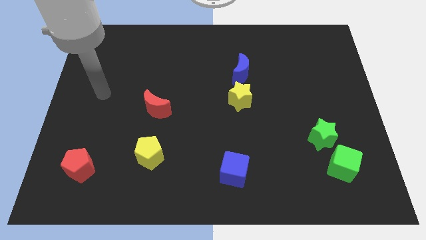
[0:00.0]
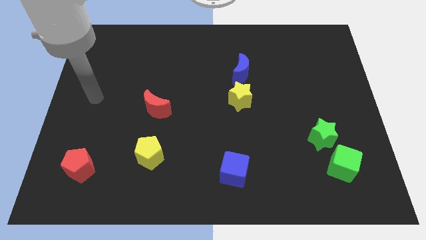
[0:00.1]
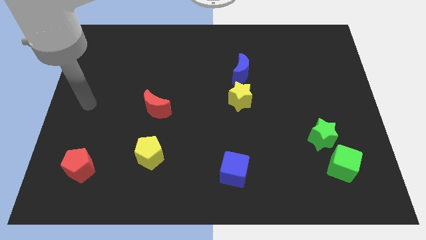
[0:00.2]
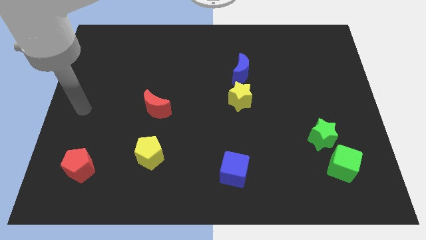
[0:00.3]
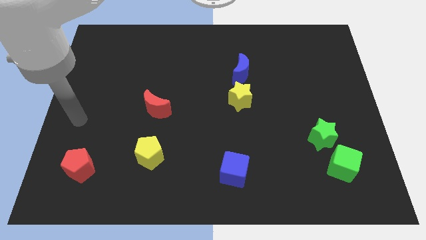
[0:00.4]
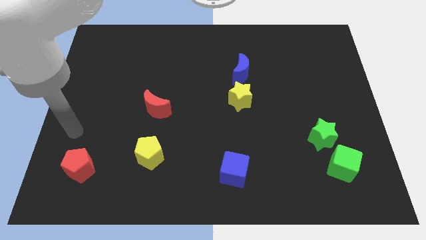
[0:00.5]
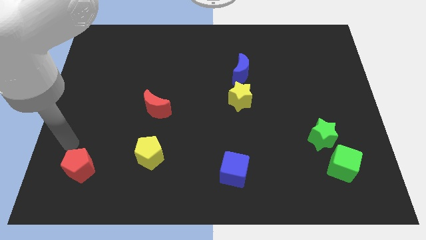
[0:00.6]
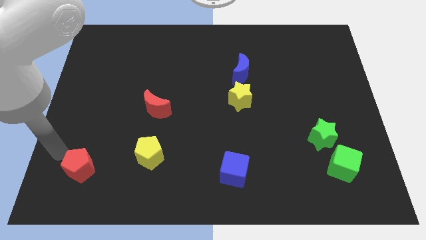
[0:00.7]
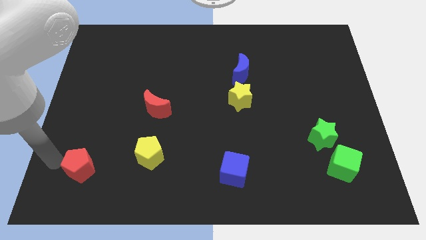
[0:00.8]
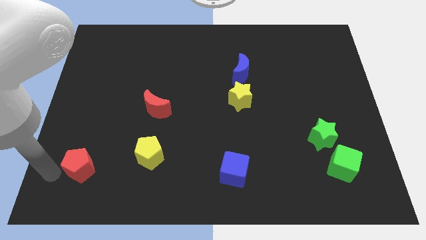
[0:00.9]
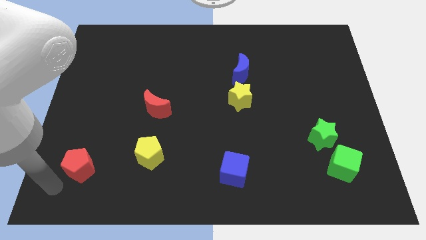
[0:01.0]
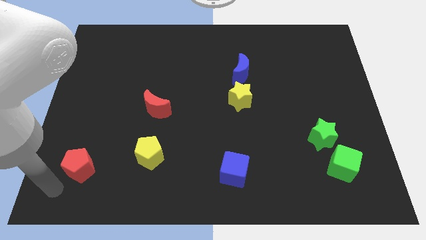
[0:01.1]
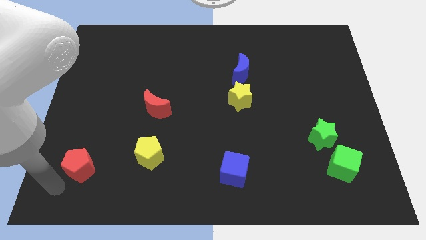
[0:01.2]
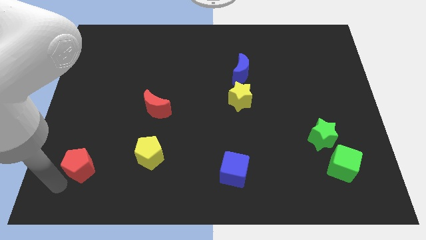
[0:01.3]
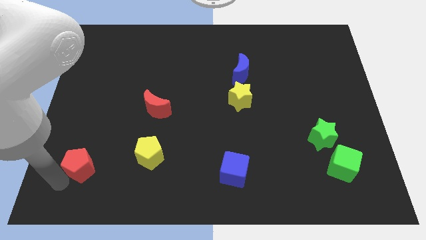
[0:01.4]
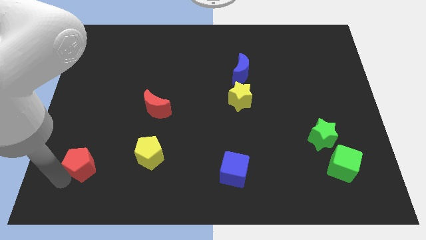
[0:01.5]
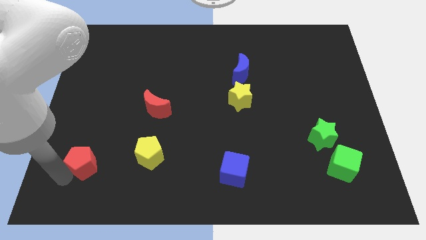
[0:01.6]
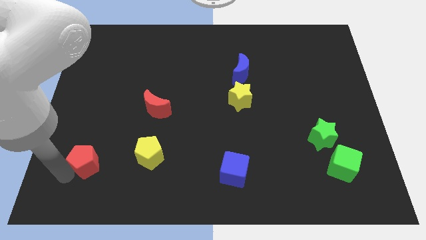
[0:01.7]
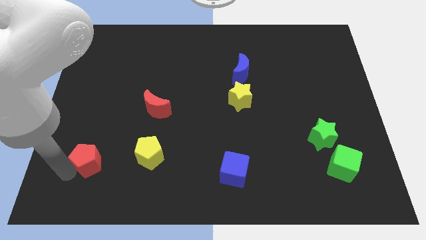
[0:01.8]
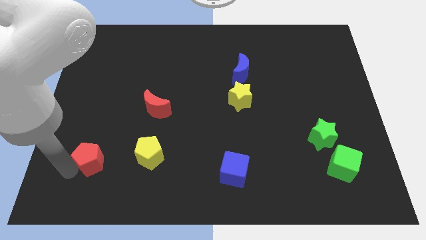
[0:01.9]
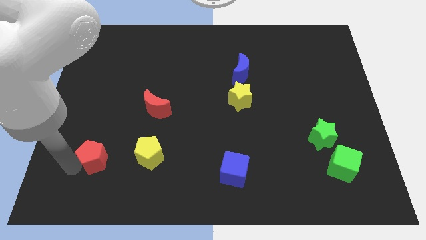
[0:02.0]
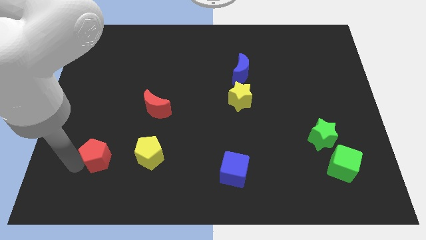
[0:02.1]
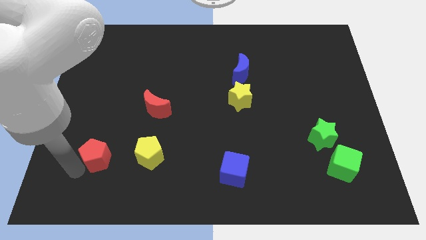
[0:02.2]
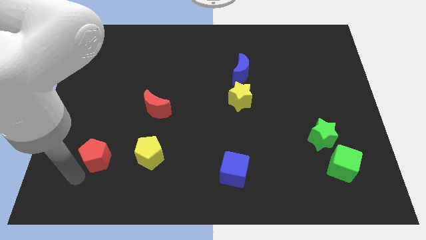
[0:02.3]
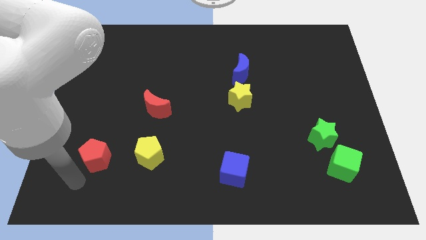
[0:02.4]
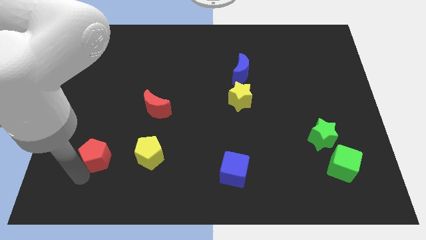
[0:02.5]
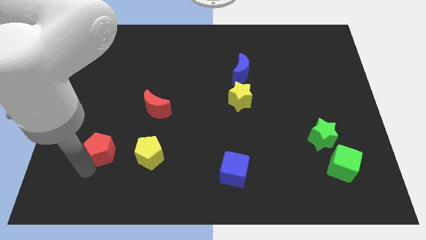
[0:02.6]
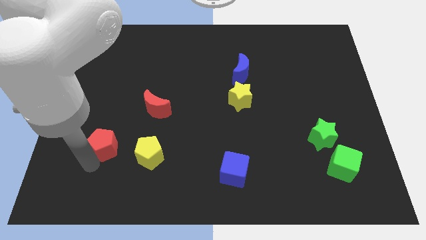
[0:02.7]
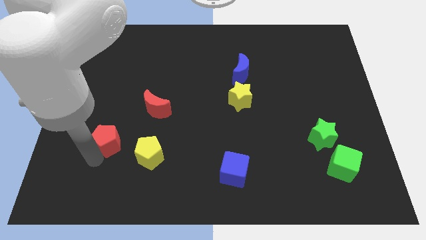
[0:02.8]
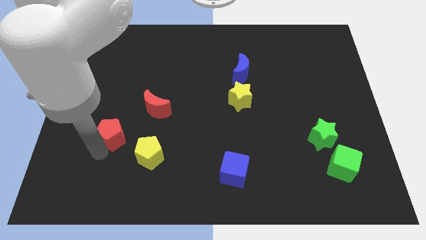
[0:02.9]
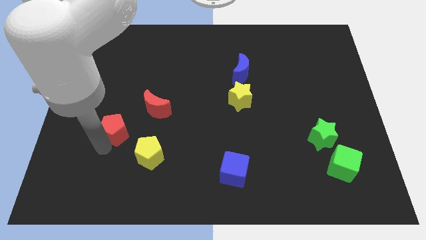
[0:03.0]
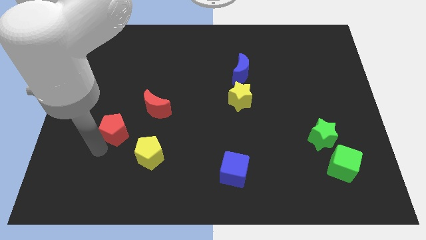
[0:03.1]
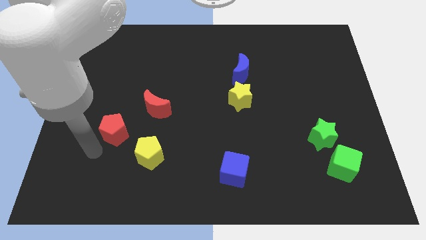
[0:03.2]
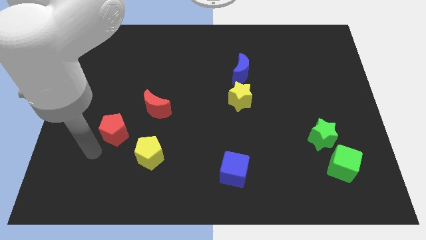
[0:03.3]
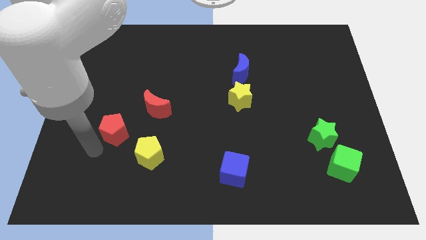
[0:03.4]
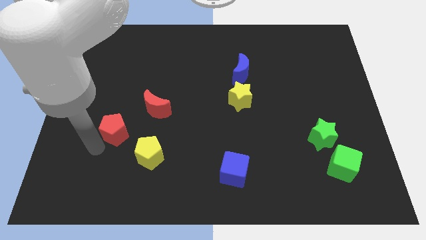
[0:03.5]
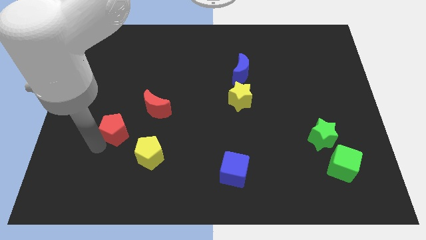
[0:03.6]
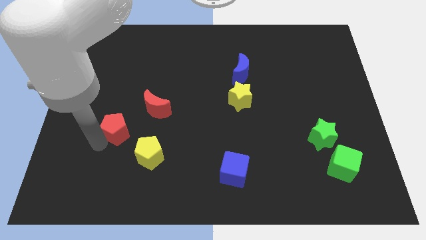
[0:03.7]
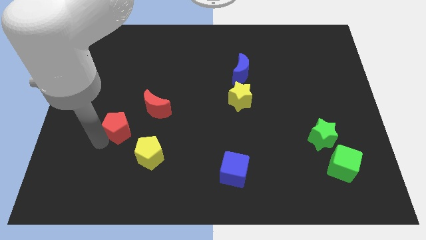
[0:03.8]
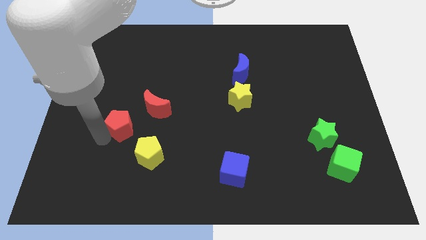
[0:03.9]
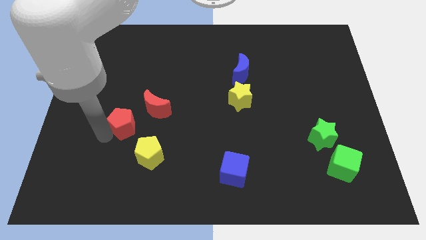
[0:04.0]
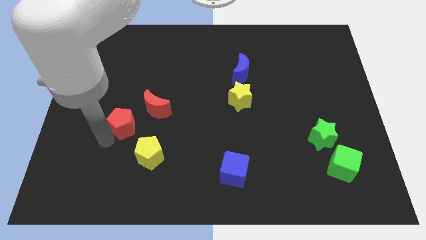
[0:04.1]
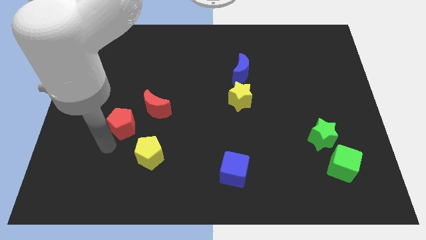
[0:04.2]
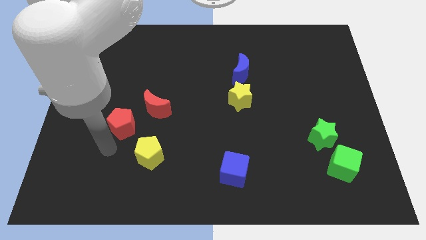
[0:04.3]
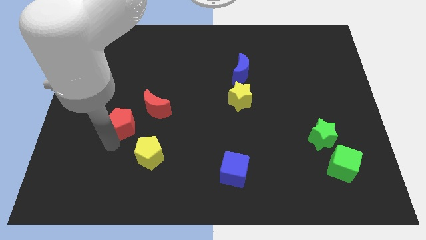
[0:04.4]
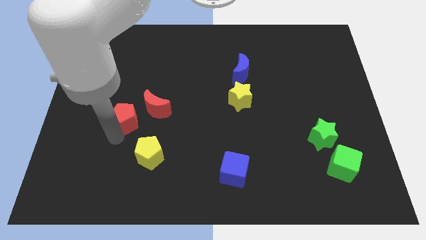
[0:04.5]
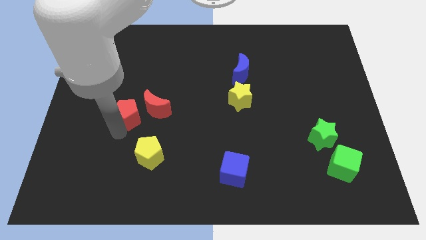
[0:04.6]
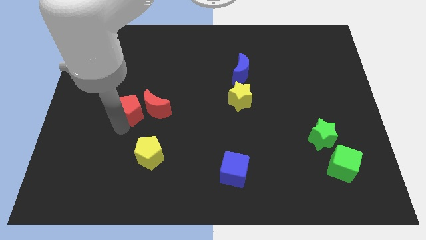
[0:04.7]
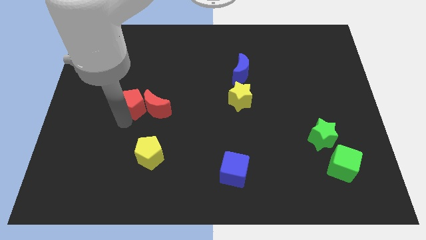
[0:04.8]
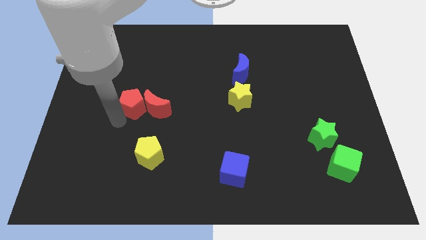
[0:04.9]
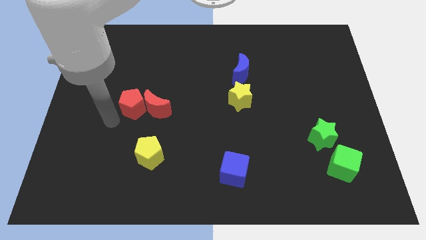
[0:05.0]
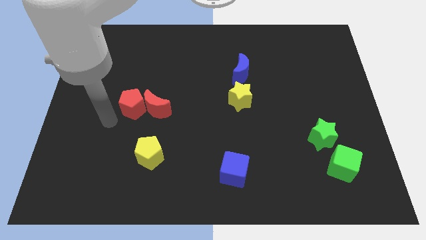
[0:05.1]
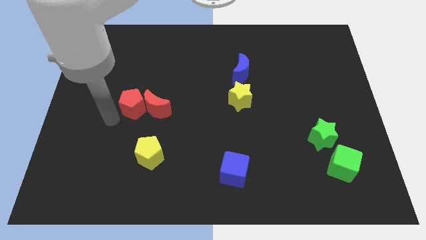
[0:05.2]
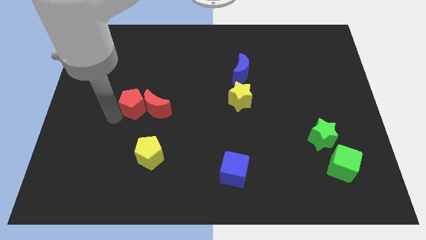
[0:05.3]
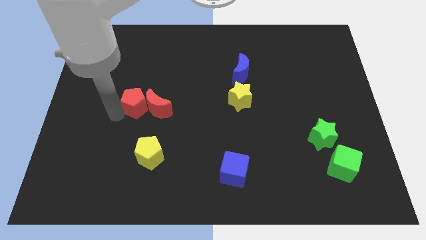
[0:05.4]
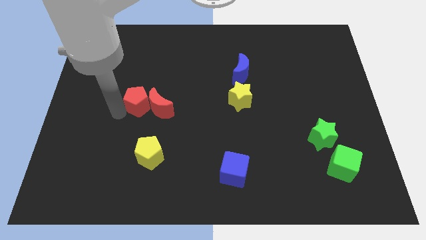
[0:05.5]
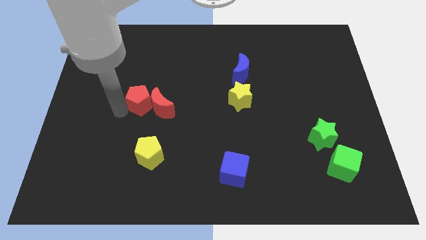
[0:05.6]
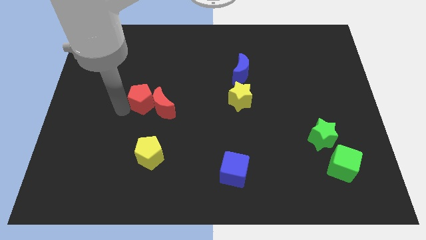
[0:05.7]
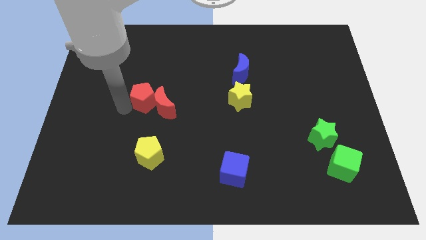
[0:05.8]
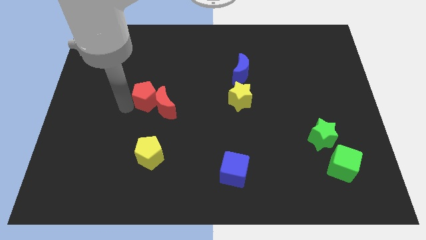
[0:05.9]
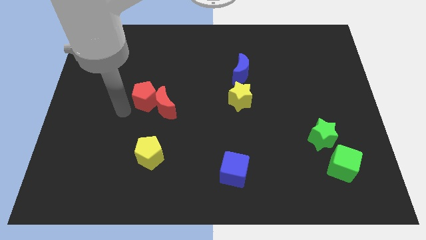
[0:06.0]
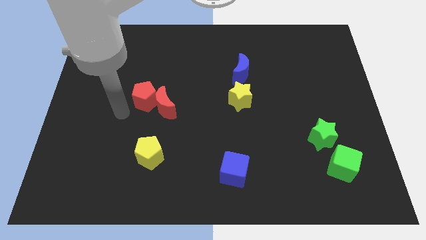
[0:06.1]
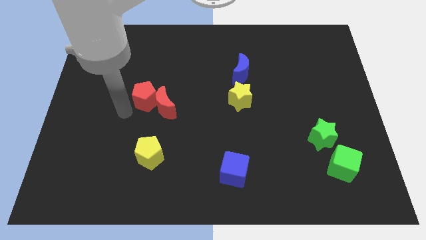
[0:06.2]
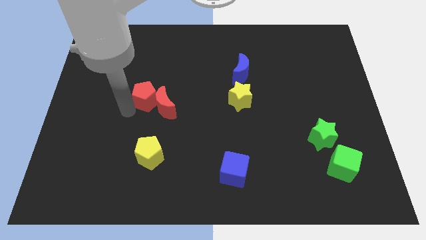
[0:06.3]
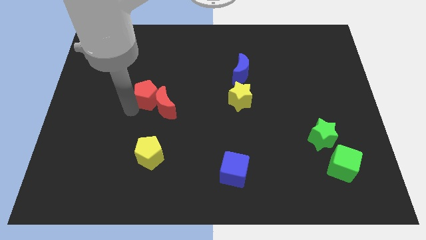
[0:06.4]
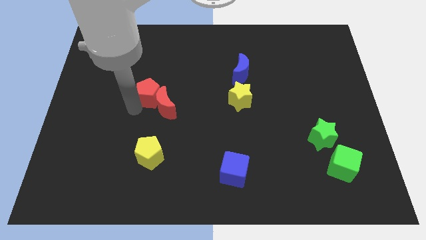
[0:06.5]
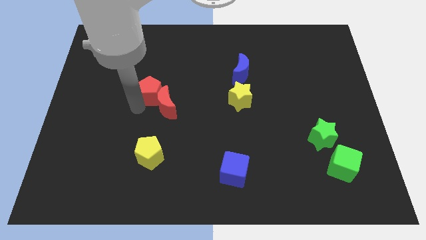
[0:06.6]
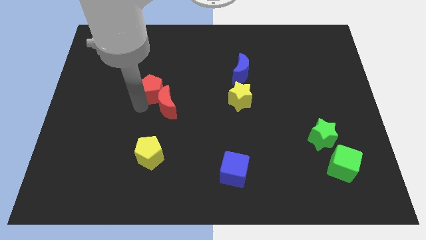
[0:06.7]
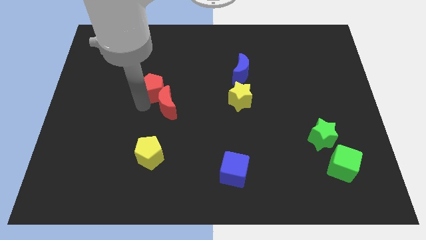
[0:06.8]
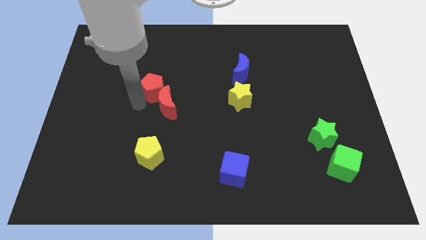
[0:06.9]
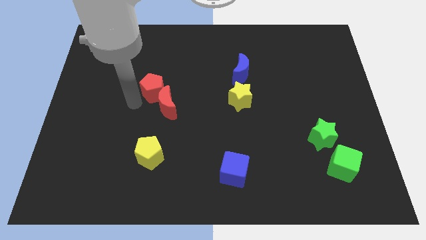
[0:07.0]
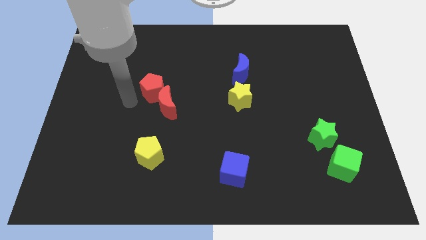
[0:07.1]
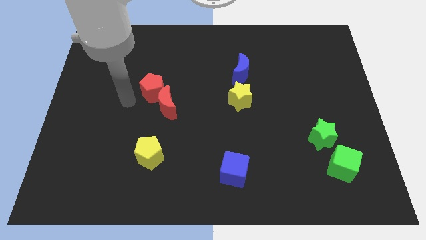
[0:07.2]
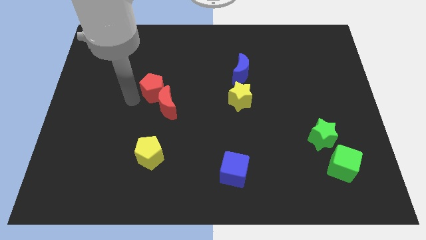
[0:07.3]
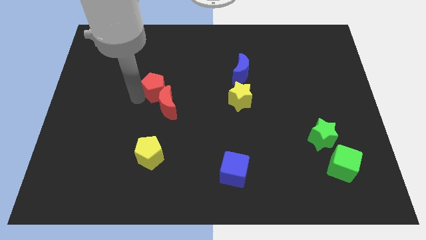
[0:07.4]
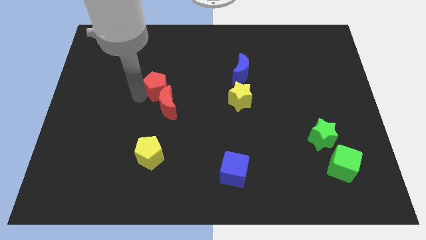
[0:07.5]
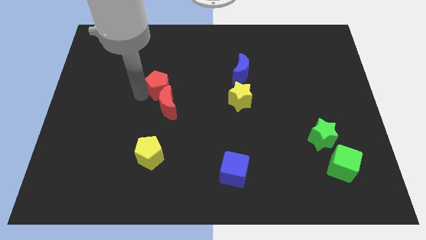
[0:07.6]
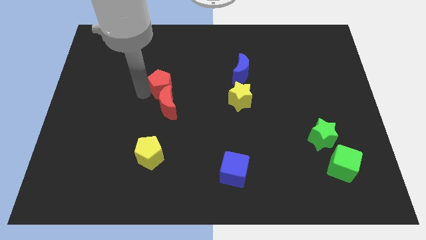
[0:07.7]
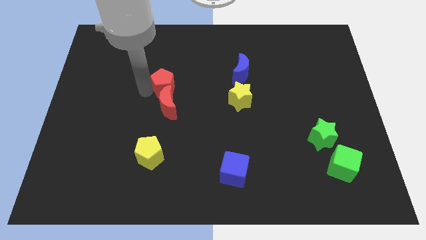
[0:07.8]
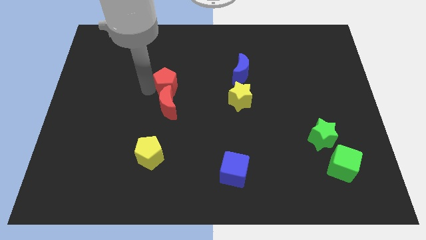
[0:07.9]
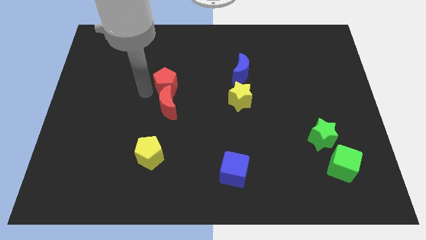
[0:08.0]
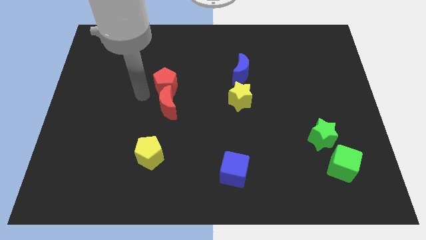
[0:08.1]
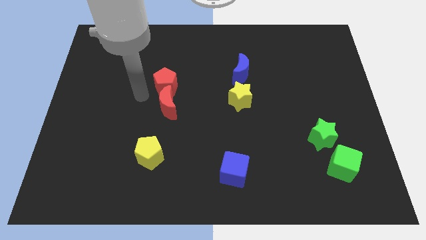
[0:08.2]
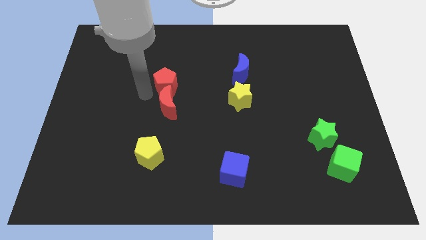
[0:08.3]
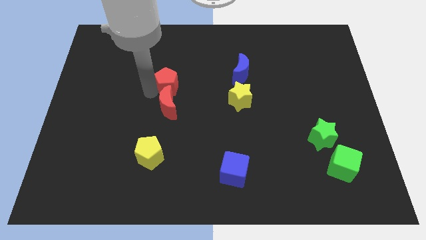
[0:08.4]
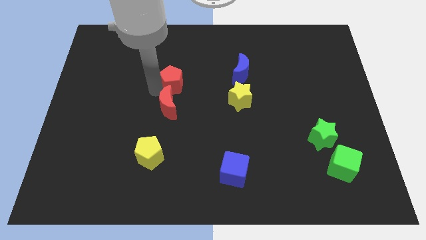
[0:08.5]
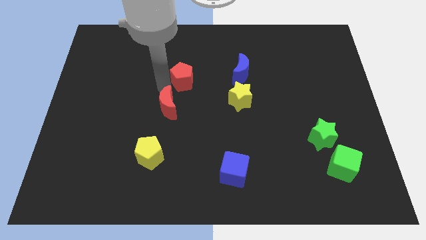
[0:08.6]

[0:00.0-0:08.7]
put the red pentagon to the left side of the blue moon
